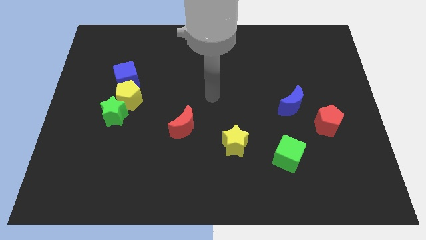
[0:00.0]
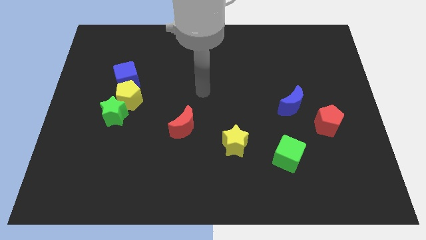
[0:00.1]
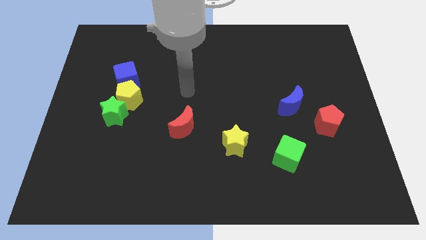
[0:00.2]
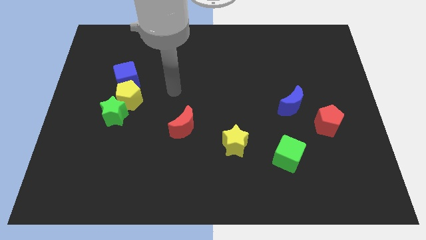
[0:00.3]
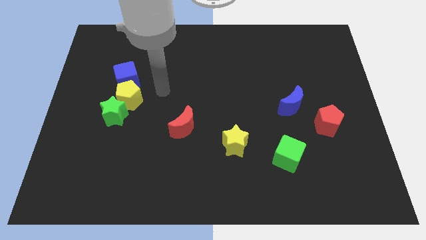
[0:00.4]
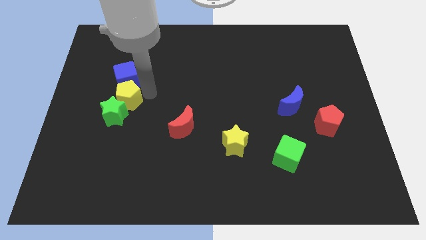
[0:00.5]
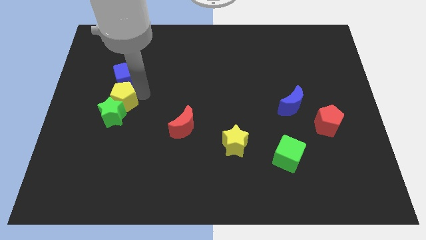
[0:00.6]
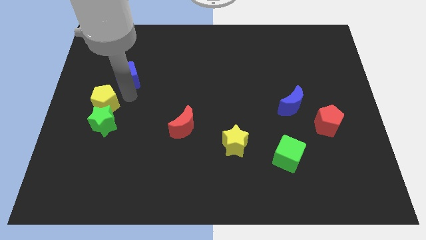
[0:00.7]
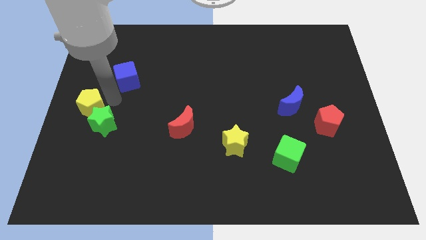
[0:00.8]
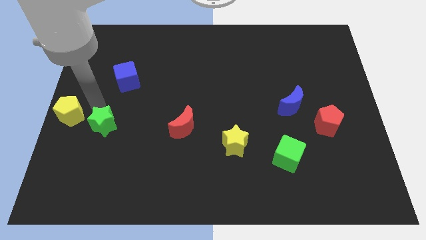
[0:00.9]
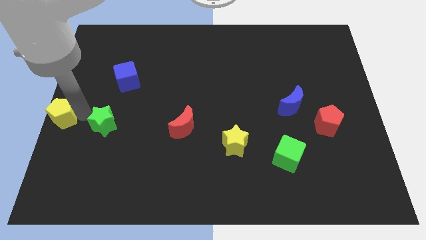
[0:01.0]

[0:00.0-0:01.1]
move the green star away from the yellow pentagon

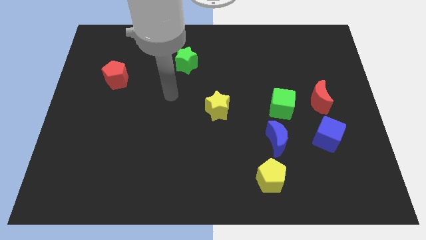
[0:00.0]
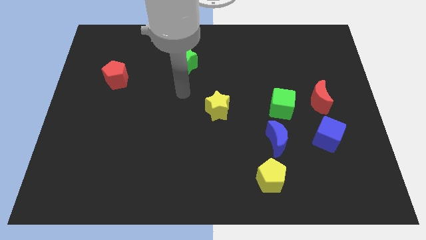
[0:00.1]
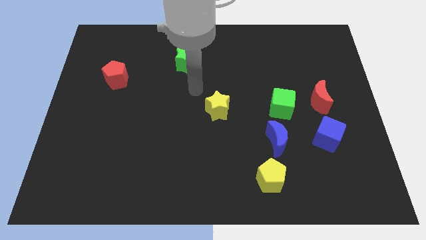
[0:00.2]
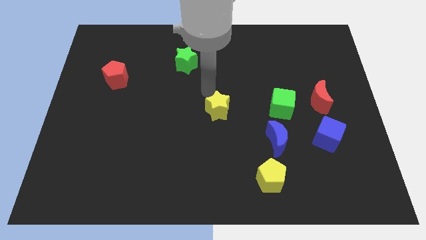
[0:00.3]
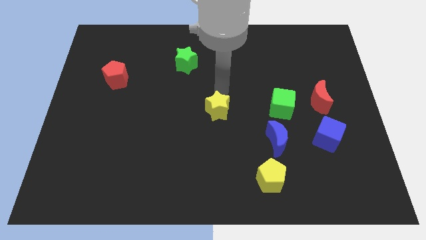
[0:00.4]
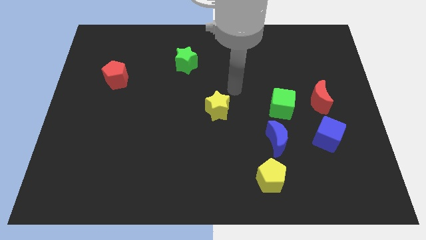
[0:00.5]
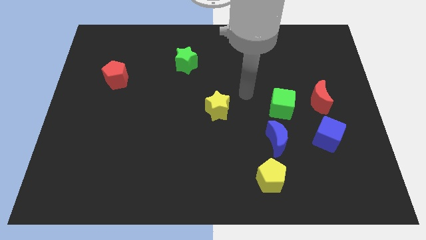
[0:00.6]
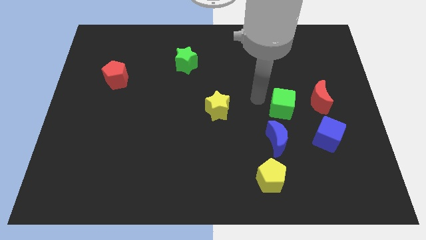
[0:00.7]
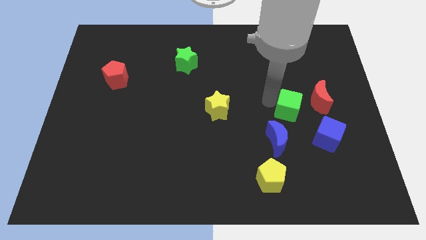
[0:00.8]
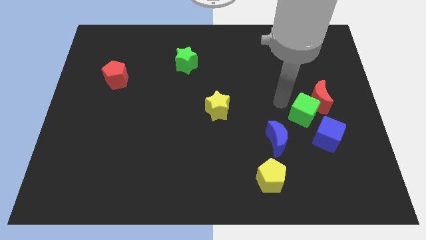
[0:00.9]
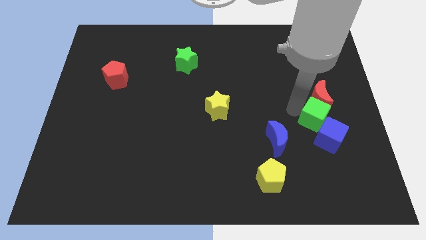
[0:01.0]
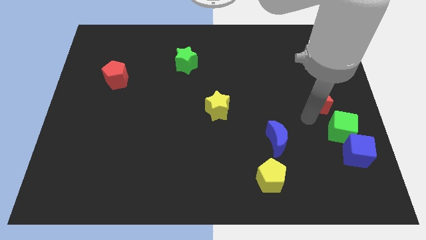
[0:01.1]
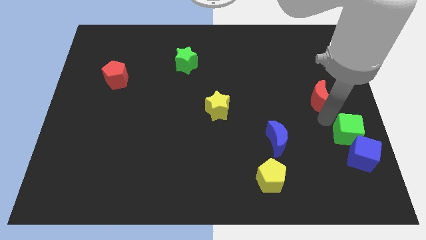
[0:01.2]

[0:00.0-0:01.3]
move the red moon away from the green cube

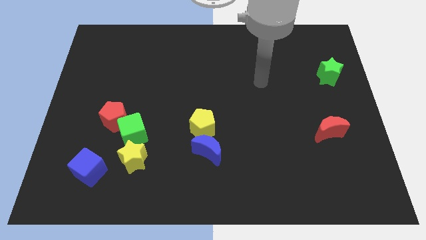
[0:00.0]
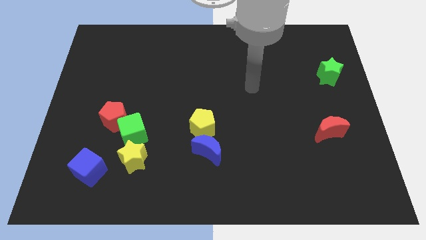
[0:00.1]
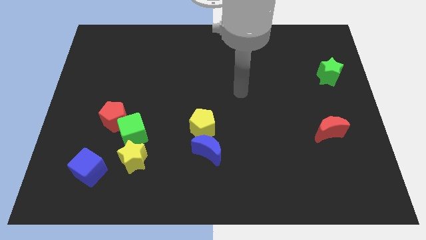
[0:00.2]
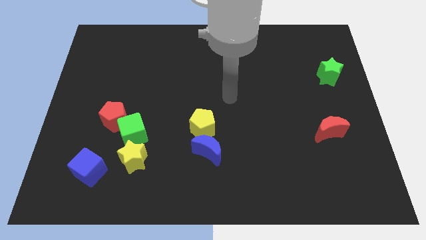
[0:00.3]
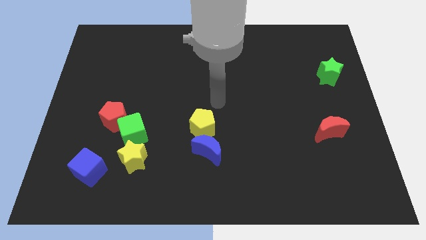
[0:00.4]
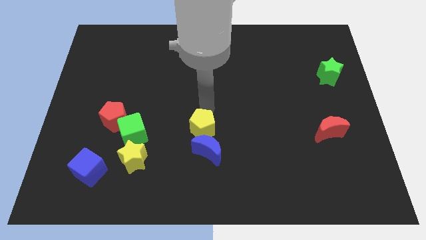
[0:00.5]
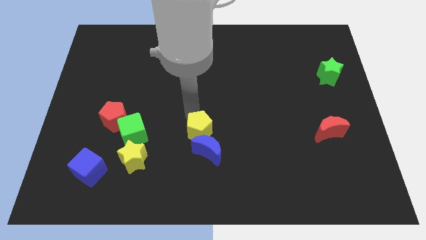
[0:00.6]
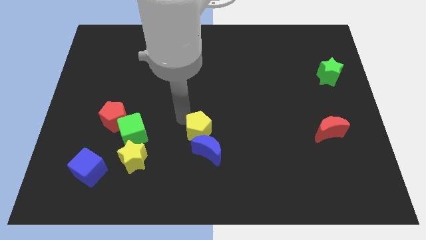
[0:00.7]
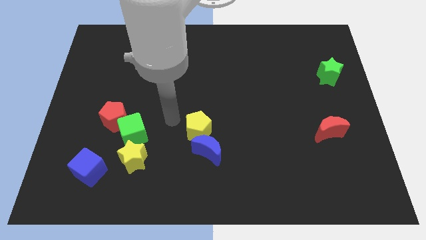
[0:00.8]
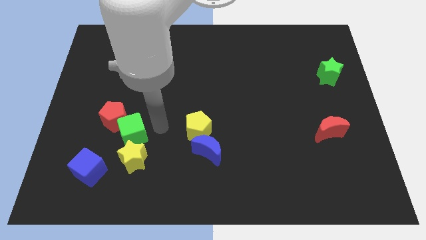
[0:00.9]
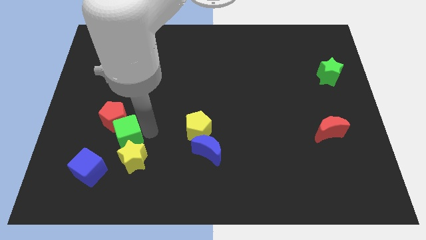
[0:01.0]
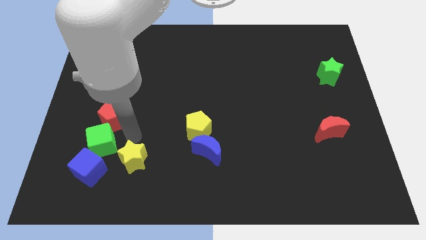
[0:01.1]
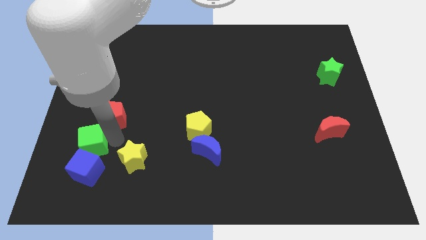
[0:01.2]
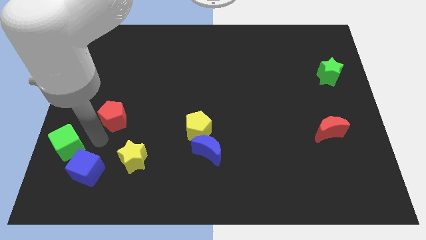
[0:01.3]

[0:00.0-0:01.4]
separate the red pentagon from the green cube

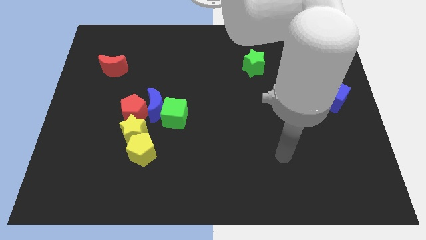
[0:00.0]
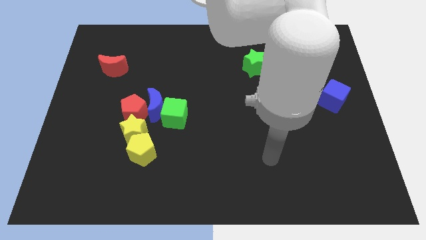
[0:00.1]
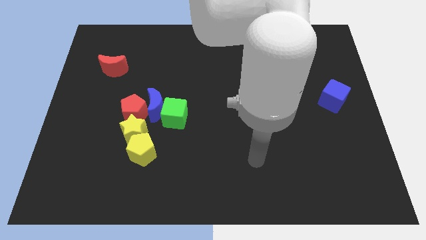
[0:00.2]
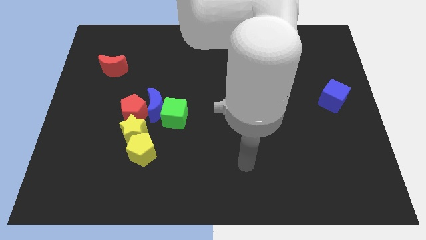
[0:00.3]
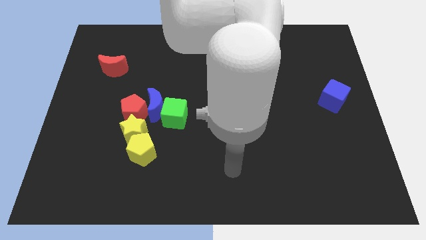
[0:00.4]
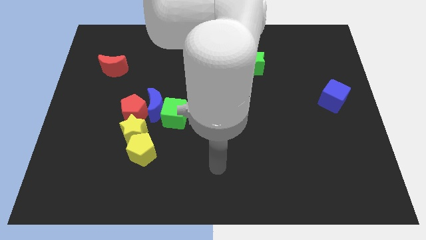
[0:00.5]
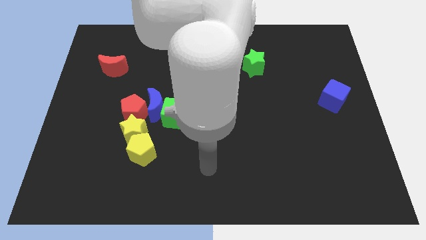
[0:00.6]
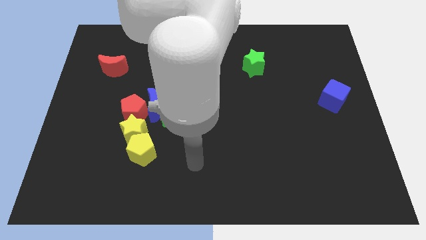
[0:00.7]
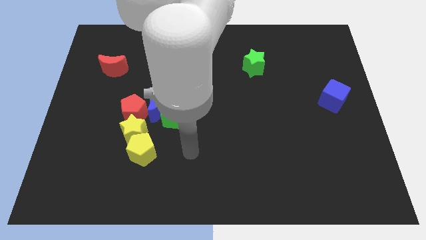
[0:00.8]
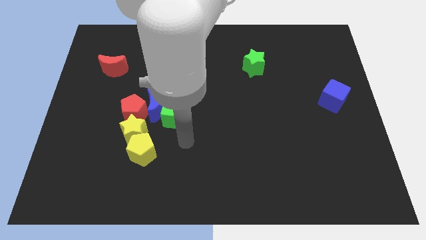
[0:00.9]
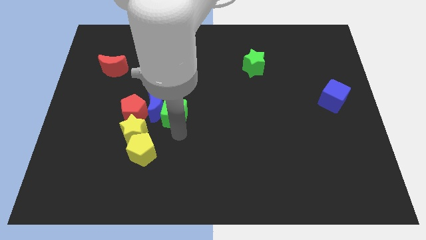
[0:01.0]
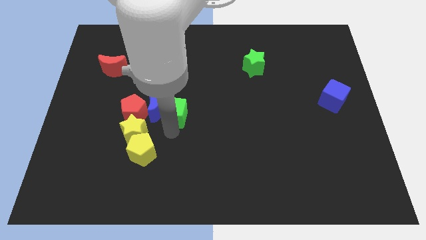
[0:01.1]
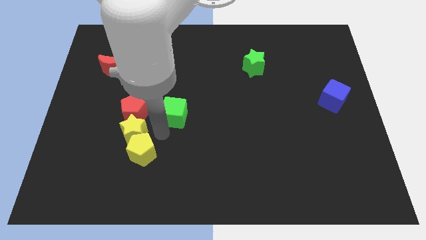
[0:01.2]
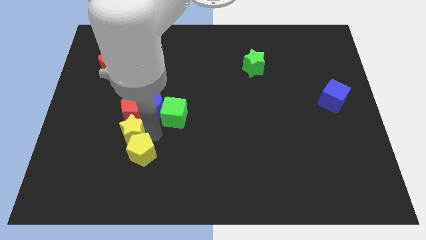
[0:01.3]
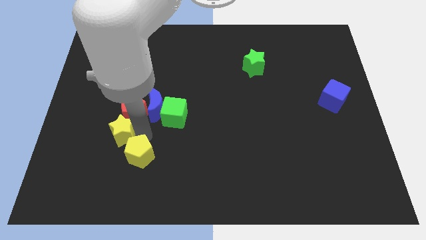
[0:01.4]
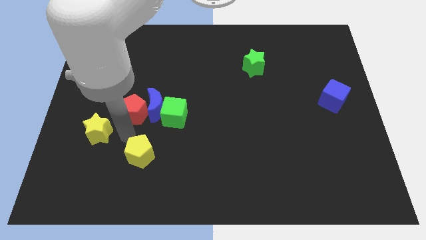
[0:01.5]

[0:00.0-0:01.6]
pull the yellow pentagon apart from the yellow star

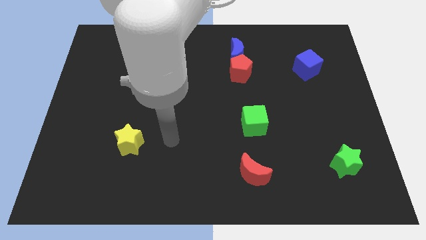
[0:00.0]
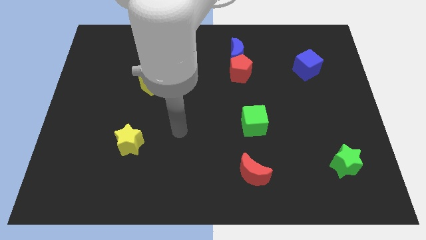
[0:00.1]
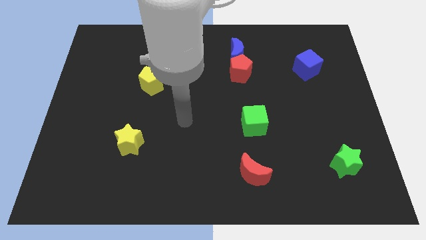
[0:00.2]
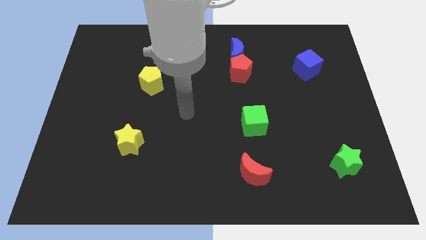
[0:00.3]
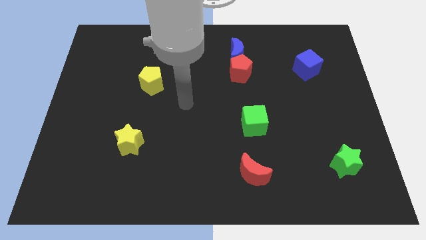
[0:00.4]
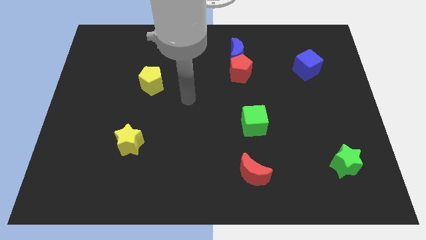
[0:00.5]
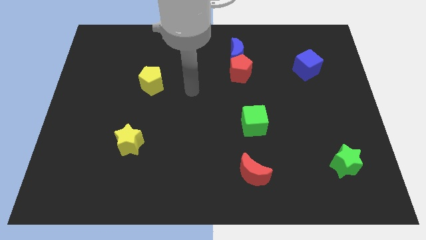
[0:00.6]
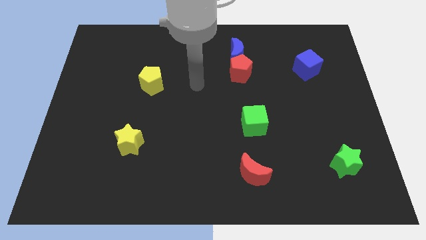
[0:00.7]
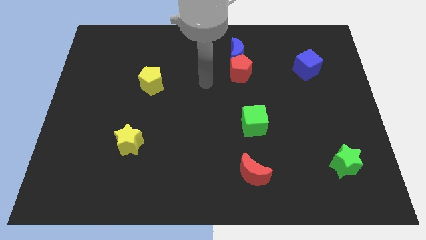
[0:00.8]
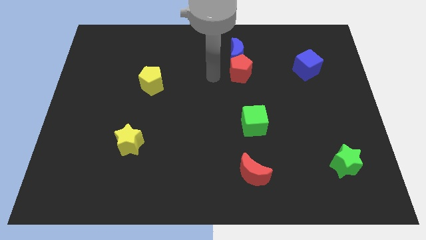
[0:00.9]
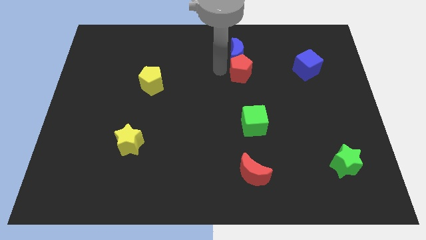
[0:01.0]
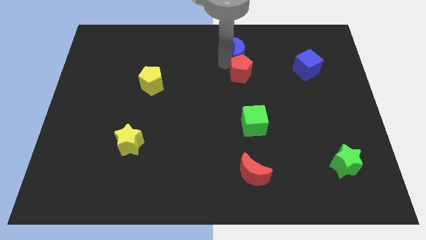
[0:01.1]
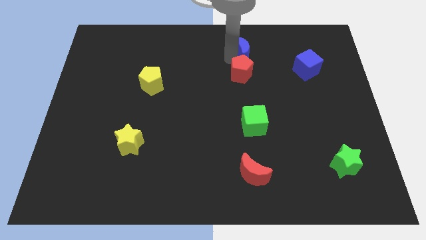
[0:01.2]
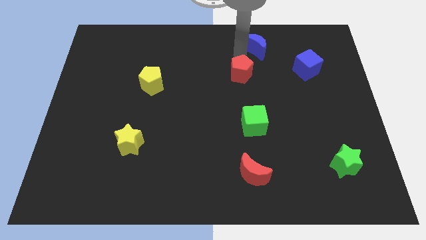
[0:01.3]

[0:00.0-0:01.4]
pull the red pentagon apart from the blue moon

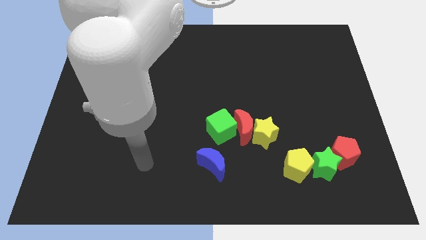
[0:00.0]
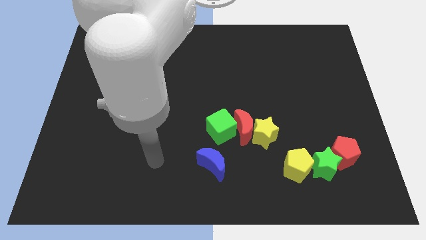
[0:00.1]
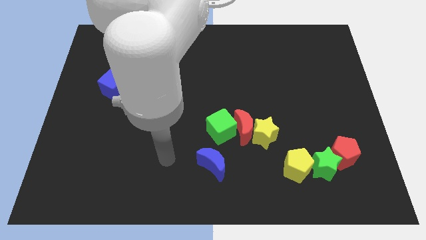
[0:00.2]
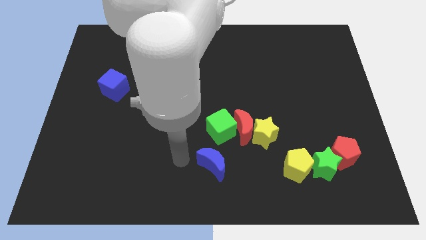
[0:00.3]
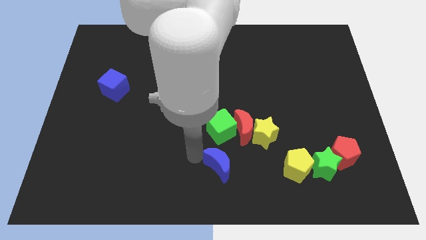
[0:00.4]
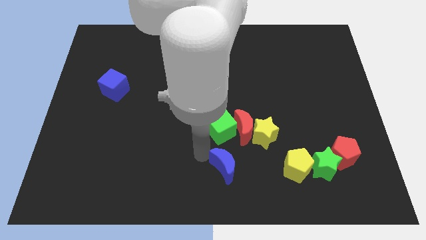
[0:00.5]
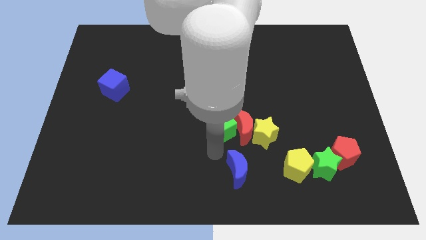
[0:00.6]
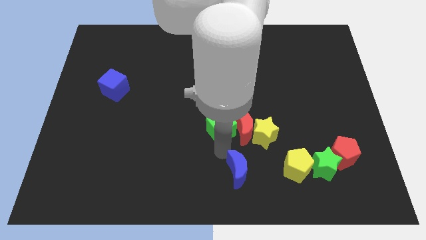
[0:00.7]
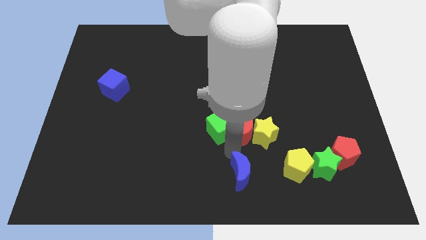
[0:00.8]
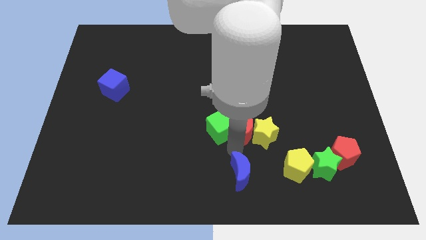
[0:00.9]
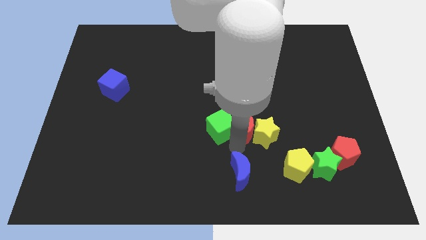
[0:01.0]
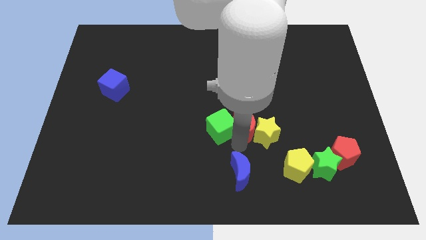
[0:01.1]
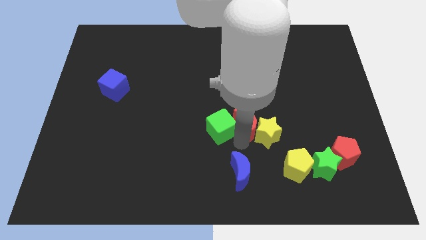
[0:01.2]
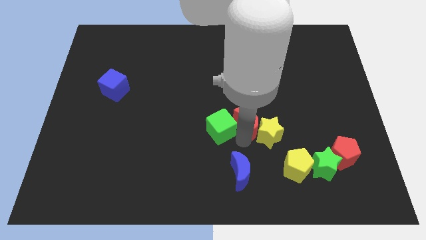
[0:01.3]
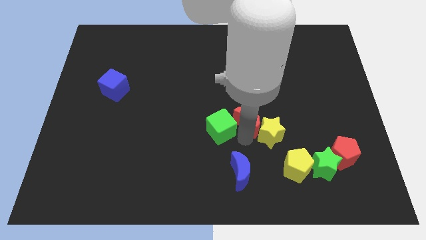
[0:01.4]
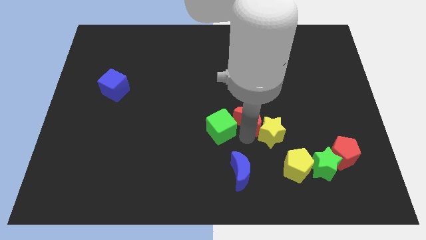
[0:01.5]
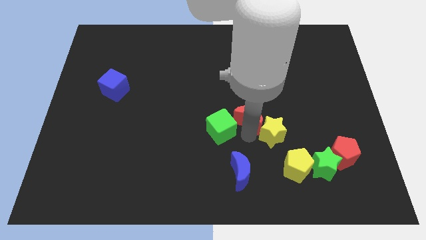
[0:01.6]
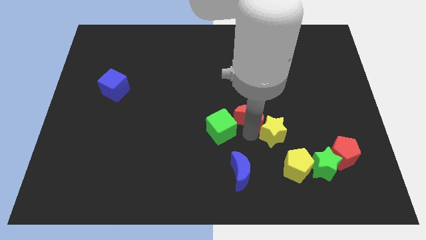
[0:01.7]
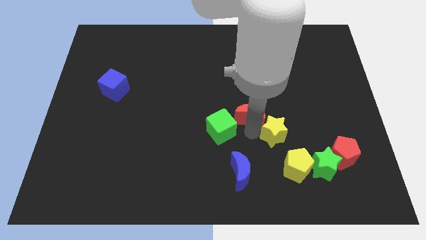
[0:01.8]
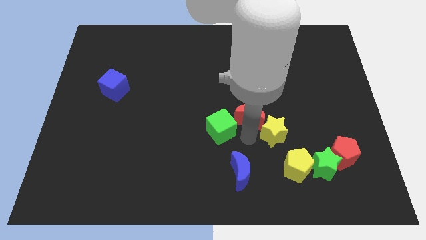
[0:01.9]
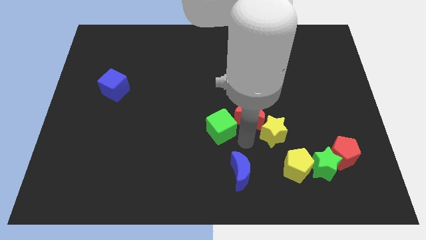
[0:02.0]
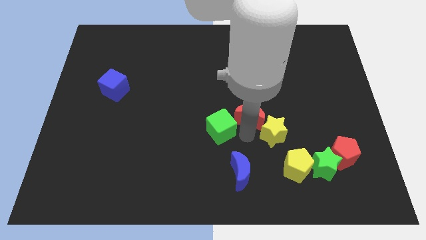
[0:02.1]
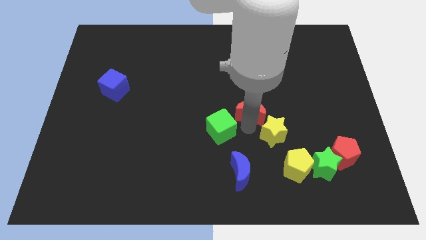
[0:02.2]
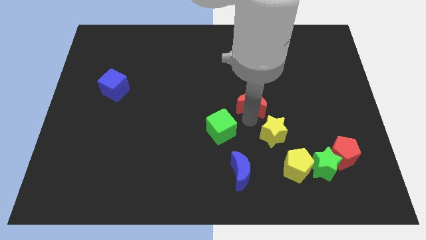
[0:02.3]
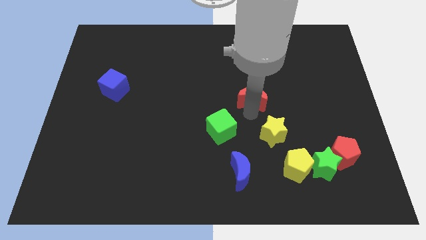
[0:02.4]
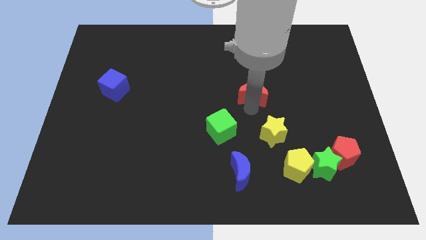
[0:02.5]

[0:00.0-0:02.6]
move the red moon away from the yellow star and green cube

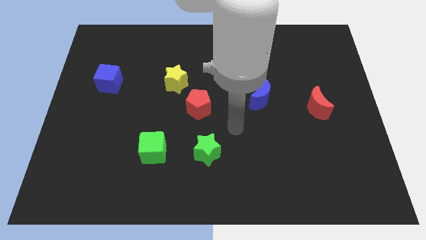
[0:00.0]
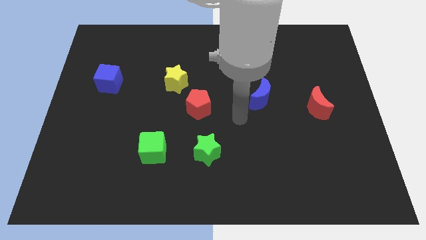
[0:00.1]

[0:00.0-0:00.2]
separate the blue moon from the yellow pentagon
